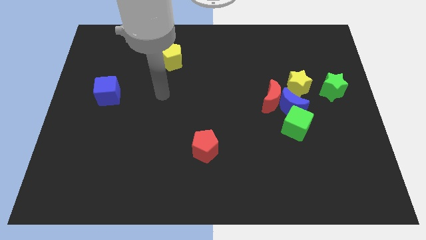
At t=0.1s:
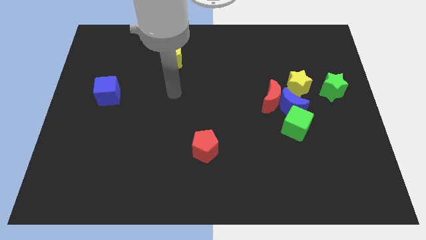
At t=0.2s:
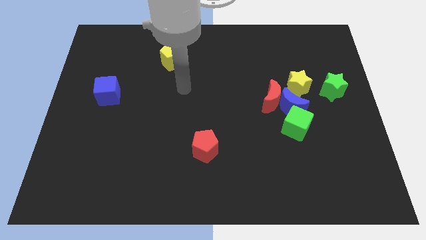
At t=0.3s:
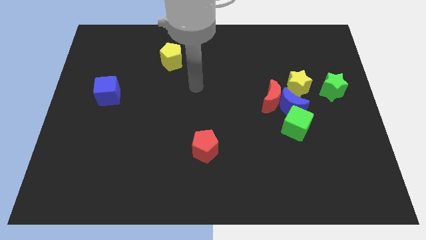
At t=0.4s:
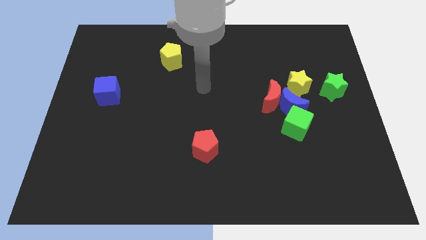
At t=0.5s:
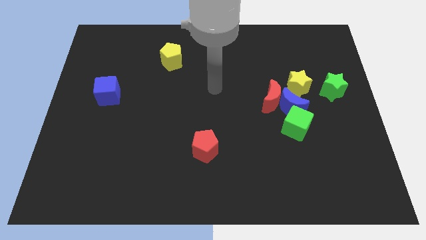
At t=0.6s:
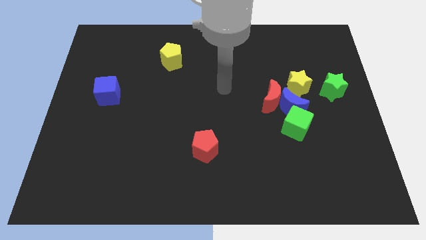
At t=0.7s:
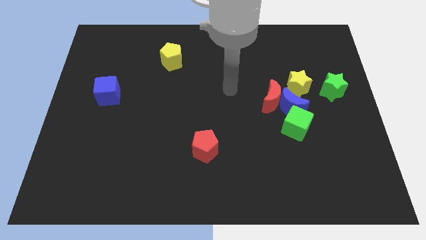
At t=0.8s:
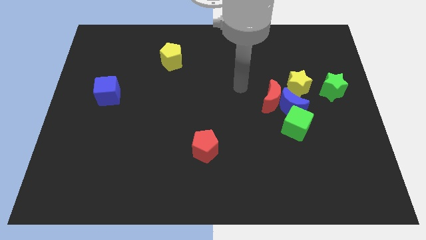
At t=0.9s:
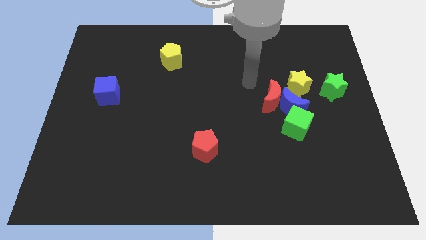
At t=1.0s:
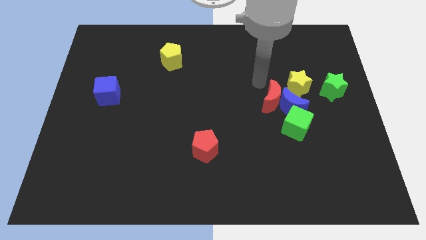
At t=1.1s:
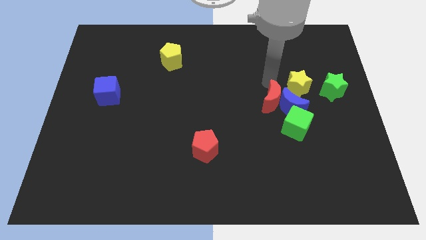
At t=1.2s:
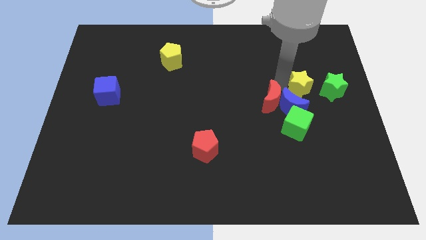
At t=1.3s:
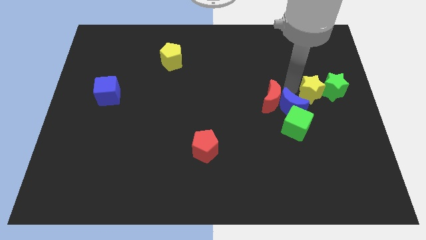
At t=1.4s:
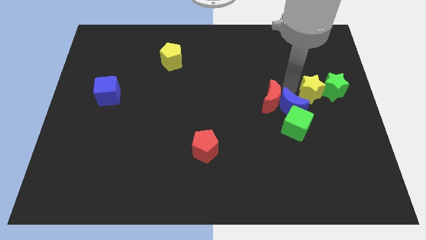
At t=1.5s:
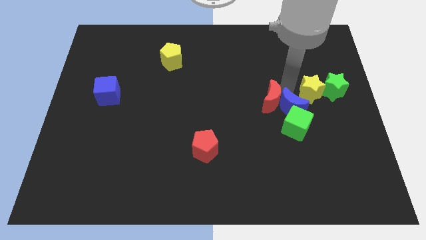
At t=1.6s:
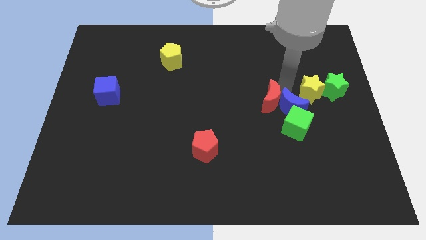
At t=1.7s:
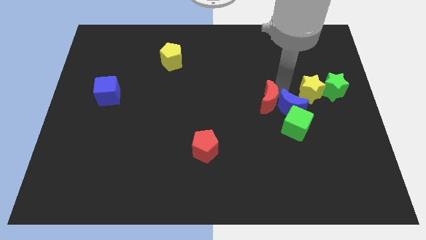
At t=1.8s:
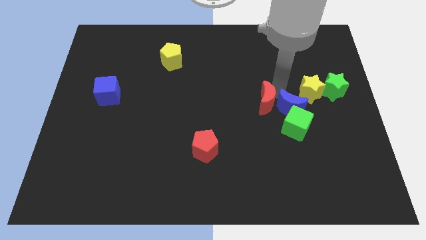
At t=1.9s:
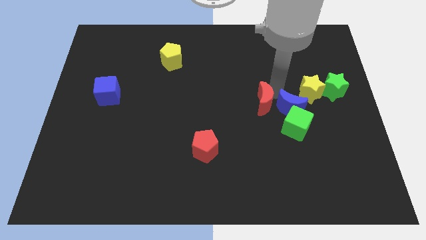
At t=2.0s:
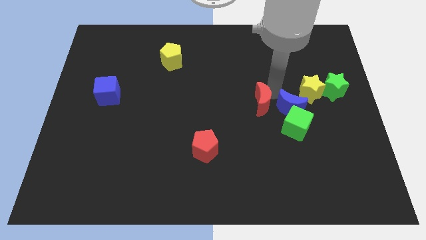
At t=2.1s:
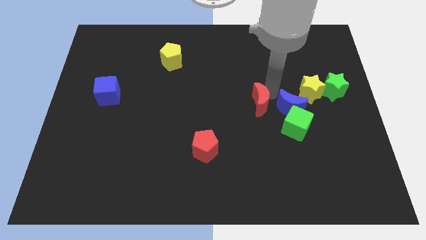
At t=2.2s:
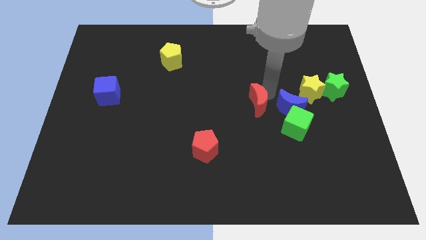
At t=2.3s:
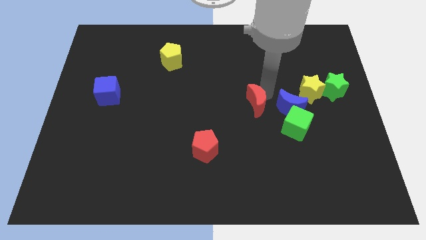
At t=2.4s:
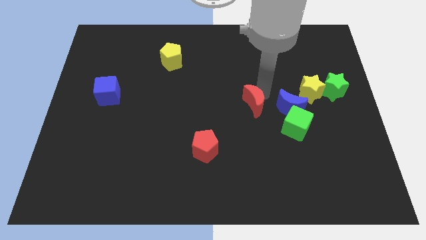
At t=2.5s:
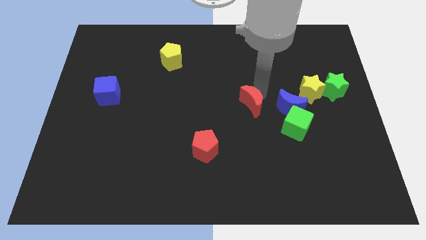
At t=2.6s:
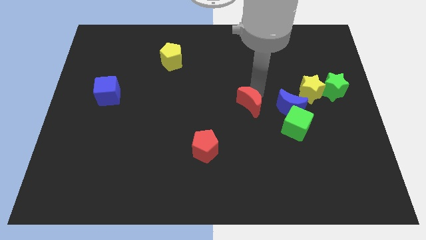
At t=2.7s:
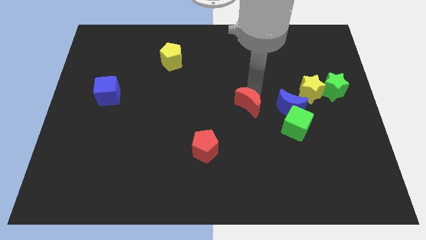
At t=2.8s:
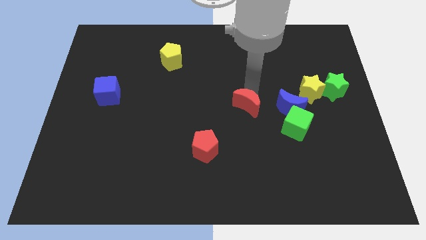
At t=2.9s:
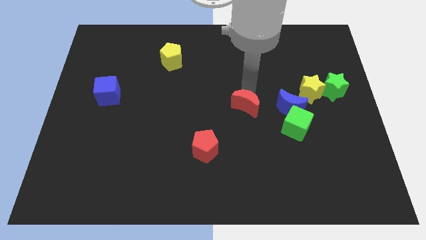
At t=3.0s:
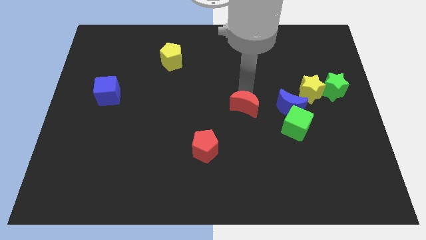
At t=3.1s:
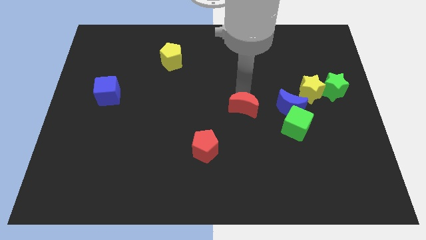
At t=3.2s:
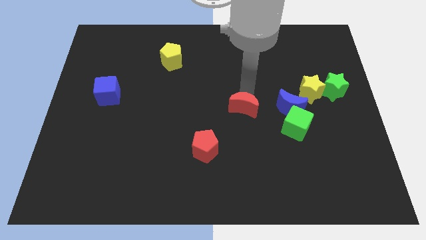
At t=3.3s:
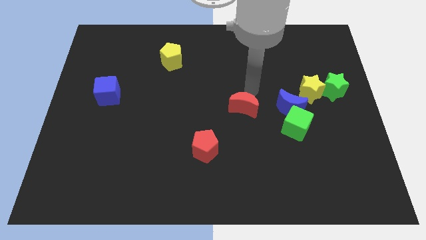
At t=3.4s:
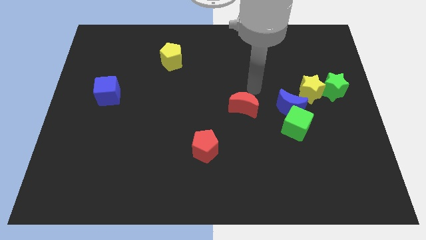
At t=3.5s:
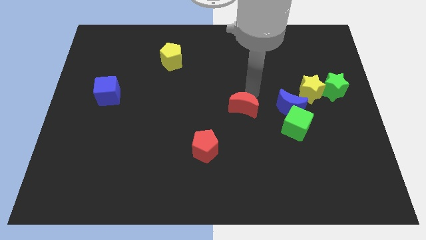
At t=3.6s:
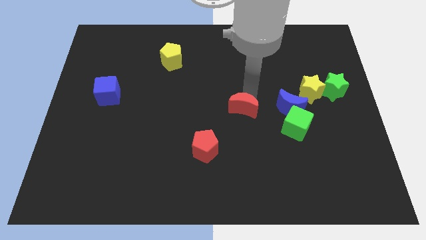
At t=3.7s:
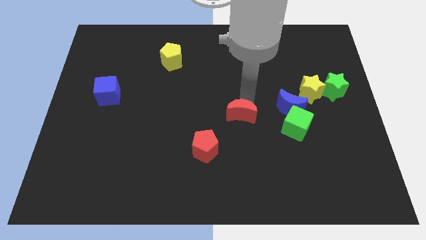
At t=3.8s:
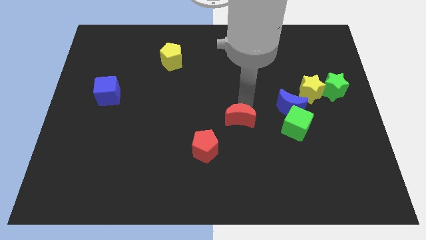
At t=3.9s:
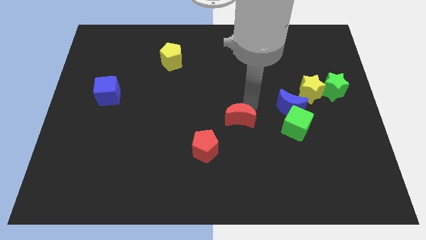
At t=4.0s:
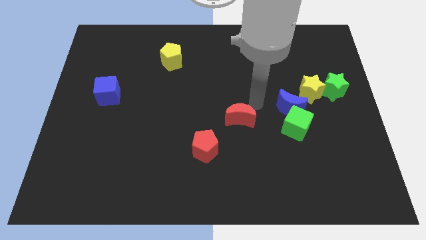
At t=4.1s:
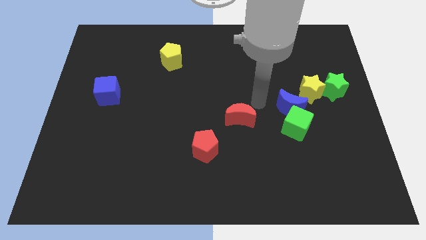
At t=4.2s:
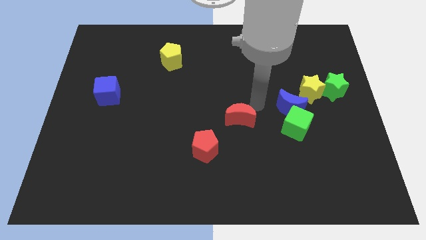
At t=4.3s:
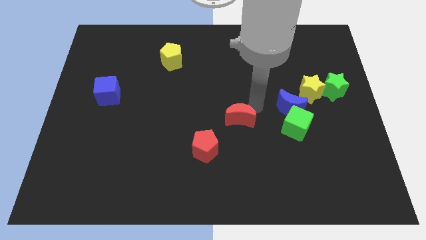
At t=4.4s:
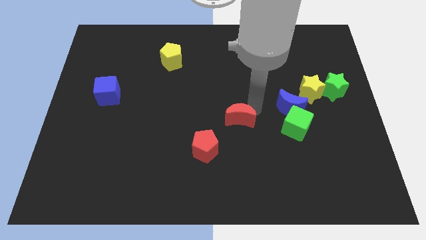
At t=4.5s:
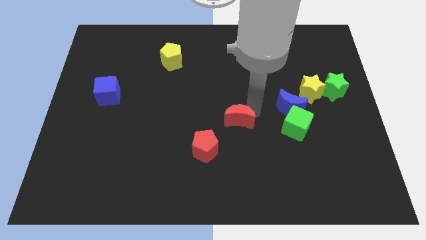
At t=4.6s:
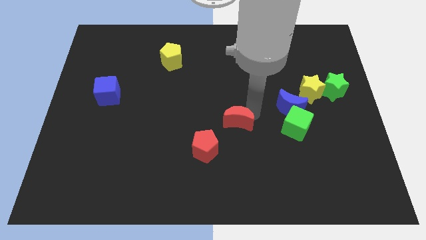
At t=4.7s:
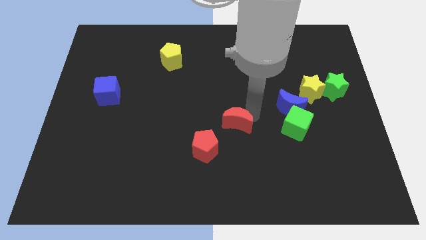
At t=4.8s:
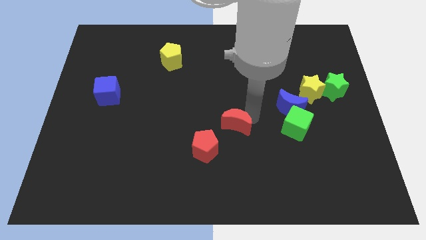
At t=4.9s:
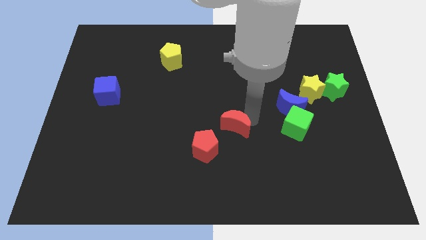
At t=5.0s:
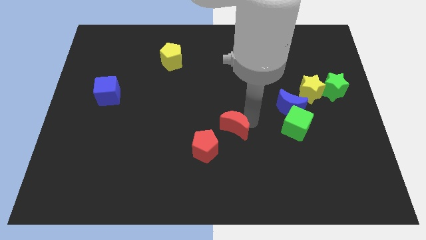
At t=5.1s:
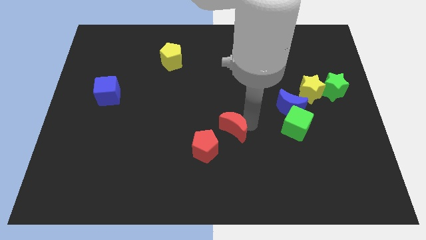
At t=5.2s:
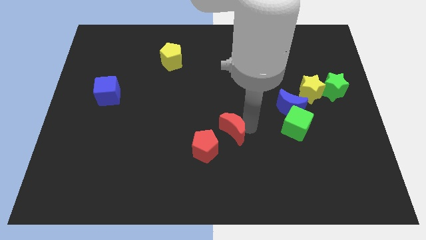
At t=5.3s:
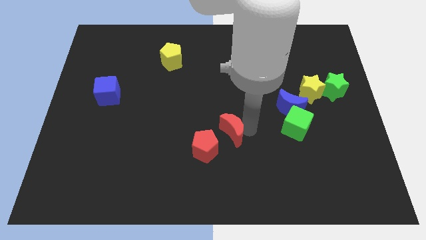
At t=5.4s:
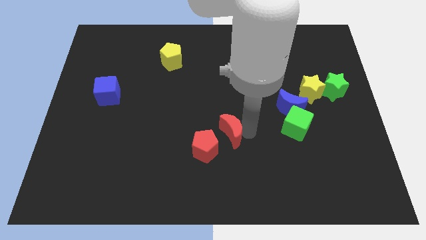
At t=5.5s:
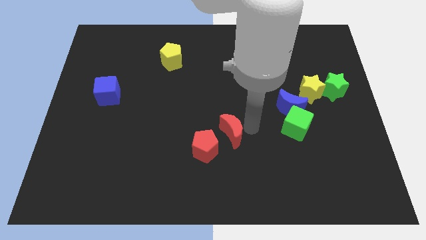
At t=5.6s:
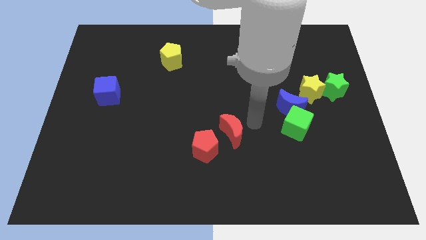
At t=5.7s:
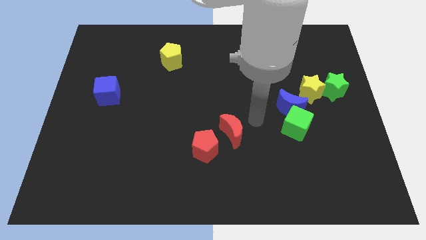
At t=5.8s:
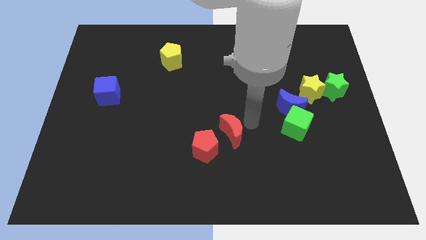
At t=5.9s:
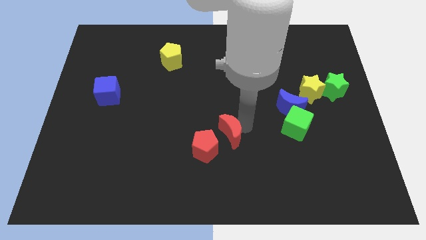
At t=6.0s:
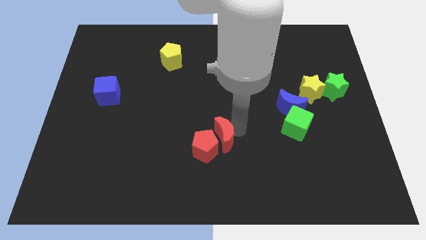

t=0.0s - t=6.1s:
move the red moon towards the red pentagon
